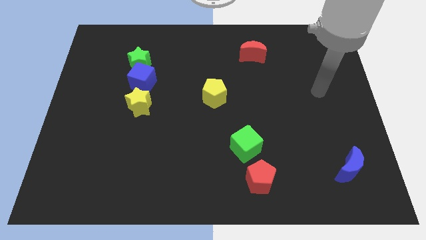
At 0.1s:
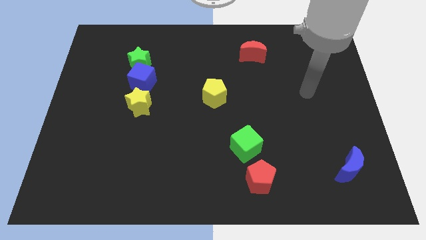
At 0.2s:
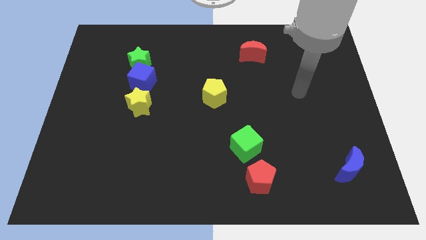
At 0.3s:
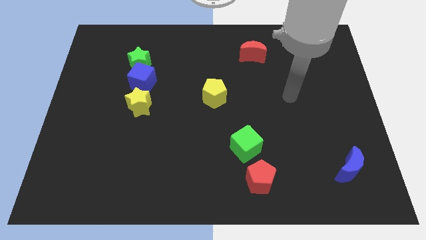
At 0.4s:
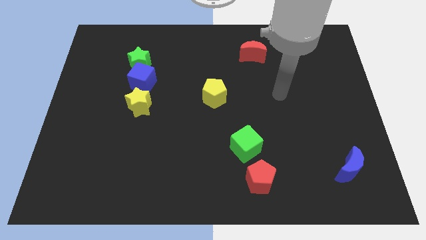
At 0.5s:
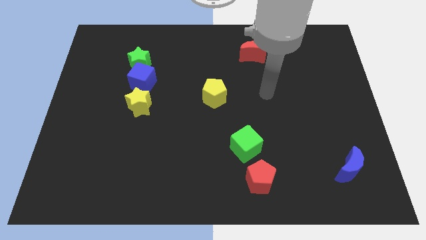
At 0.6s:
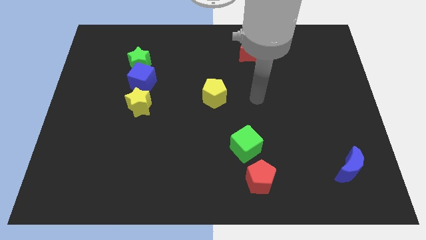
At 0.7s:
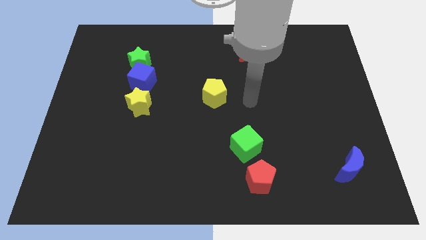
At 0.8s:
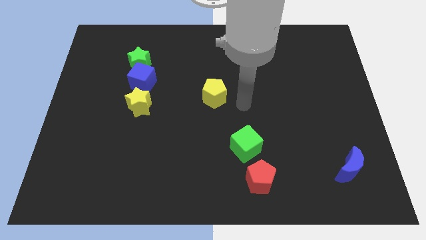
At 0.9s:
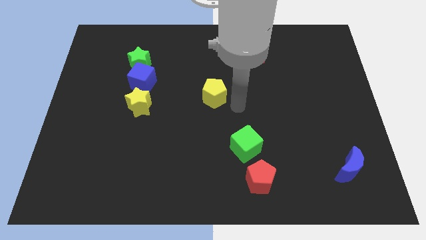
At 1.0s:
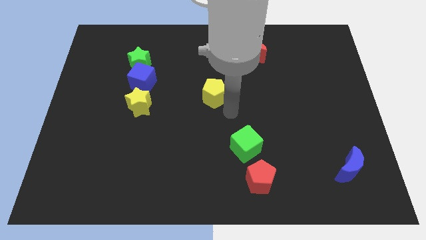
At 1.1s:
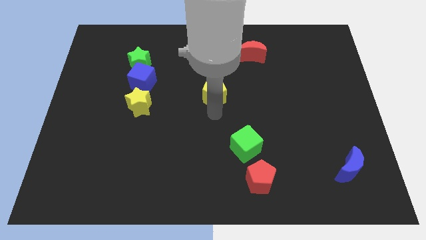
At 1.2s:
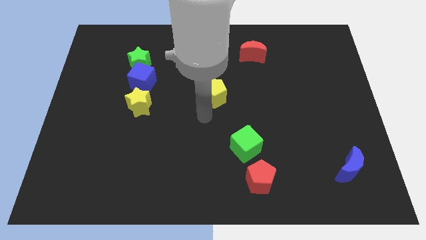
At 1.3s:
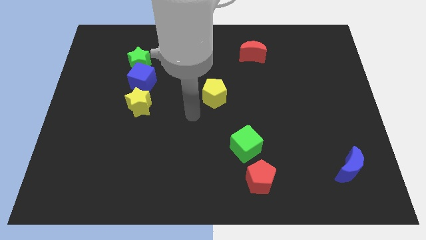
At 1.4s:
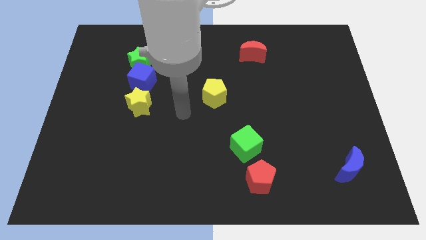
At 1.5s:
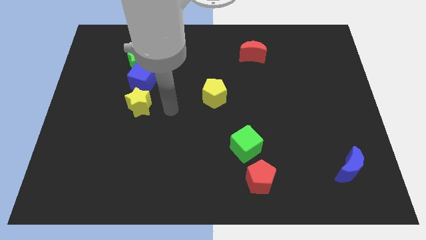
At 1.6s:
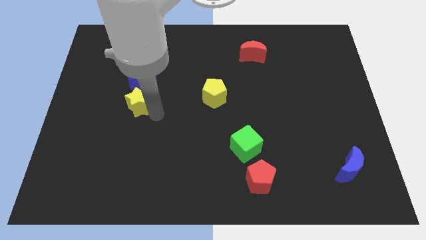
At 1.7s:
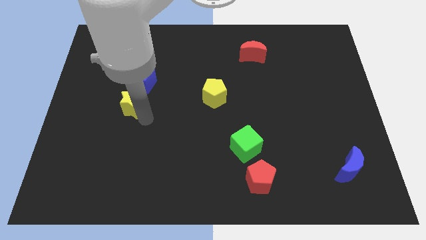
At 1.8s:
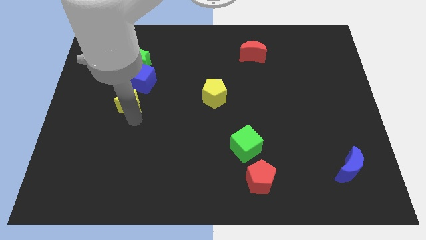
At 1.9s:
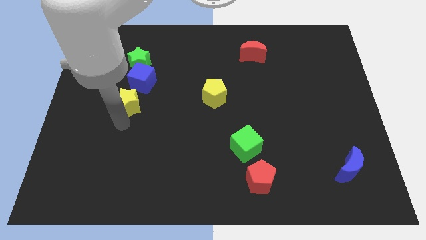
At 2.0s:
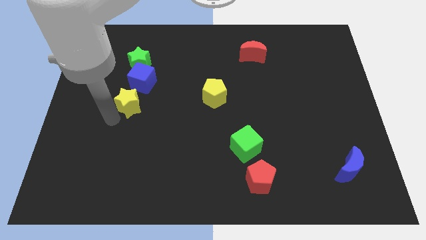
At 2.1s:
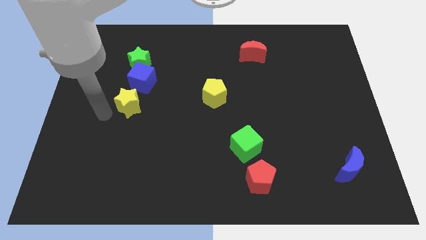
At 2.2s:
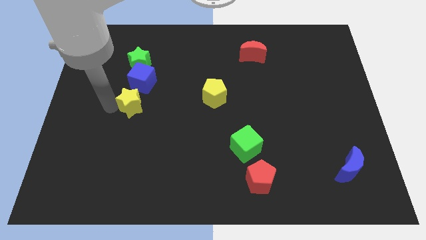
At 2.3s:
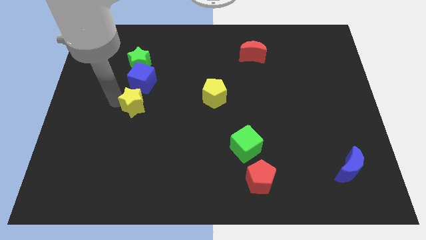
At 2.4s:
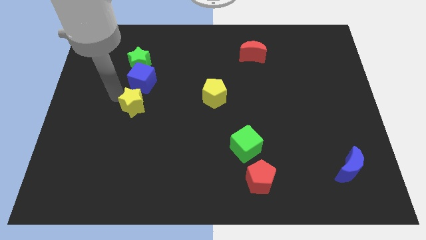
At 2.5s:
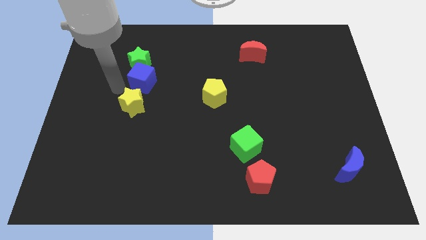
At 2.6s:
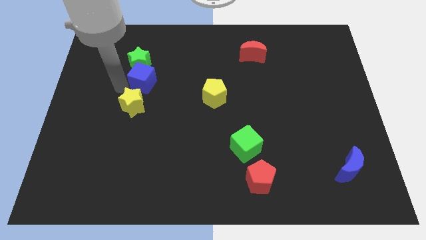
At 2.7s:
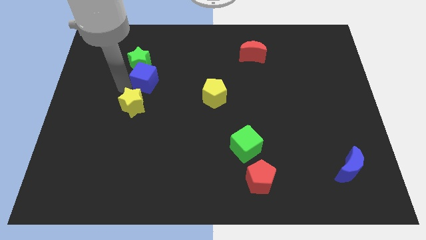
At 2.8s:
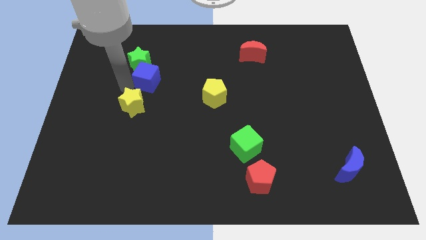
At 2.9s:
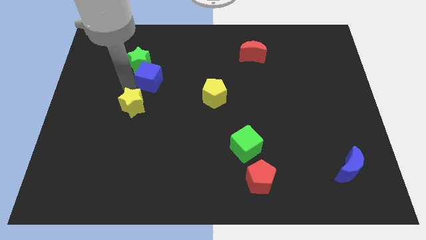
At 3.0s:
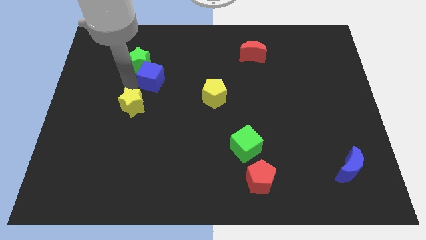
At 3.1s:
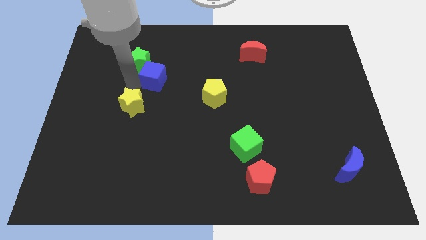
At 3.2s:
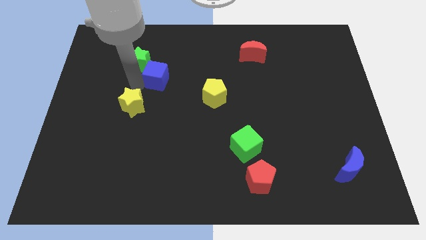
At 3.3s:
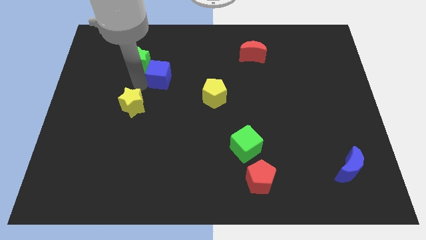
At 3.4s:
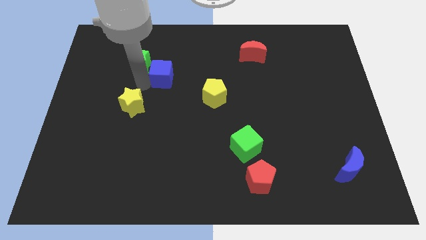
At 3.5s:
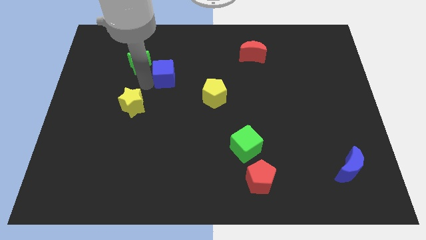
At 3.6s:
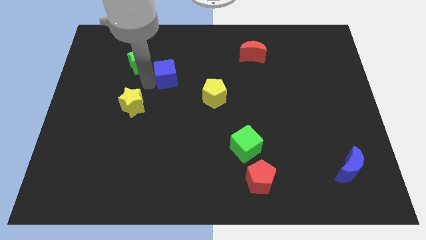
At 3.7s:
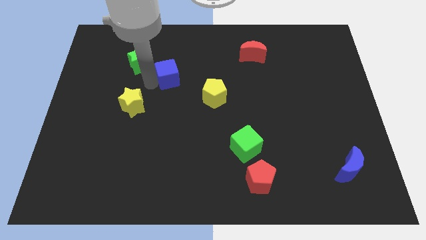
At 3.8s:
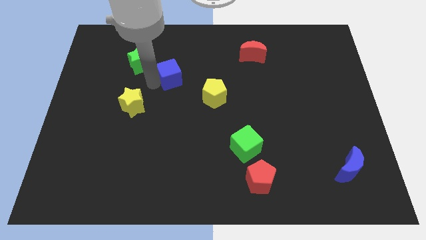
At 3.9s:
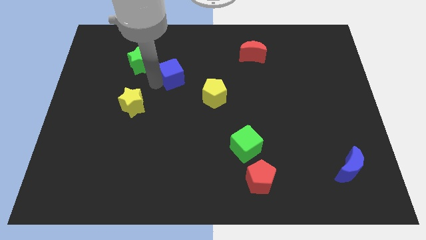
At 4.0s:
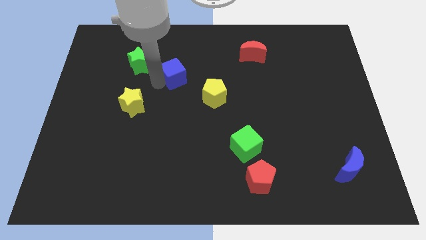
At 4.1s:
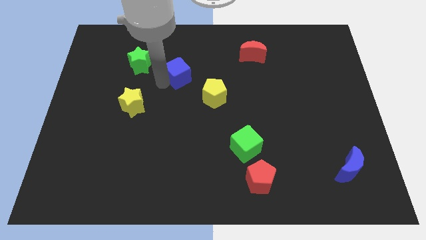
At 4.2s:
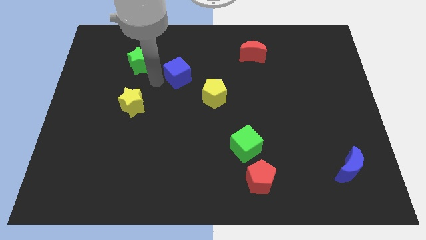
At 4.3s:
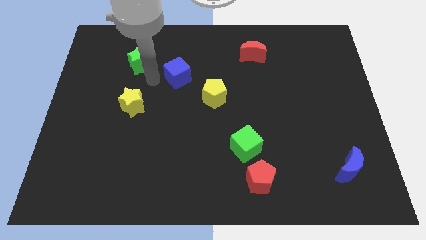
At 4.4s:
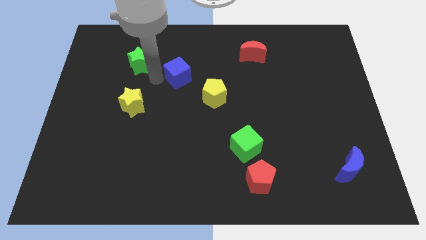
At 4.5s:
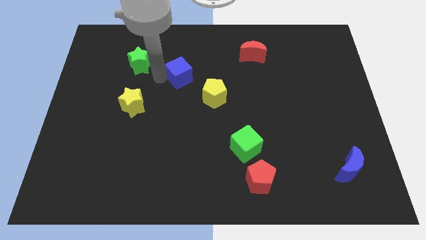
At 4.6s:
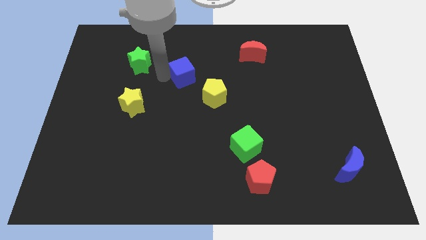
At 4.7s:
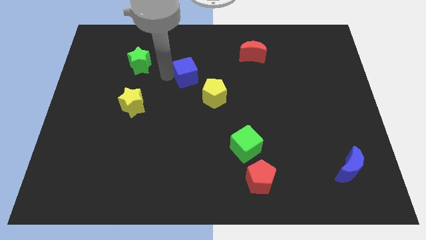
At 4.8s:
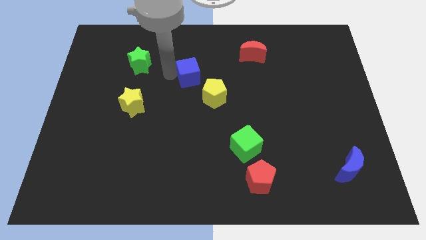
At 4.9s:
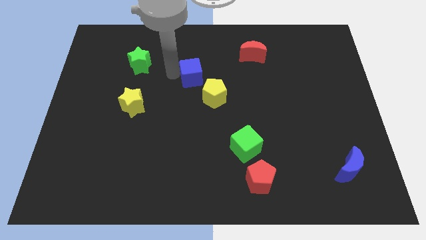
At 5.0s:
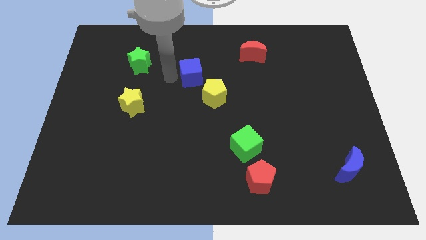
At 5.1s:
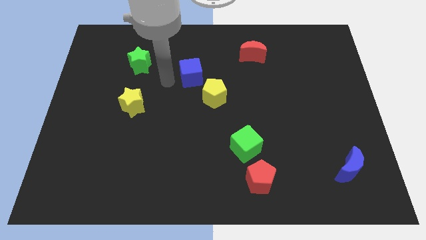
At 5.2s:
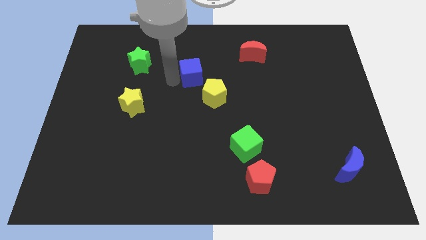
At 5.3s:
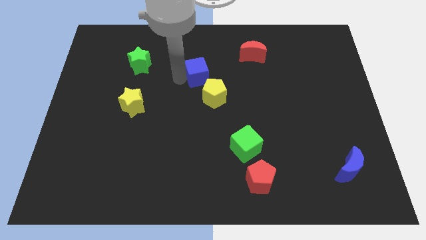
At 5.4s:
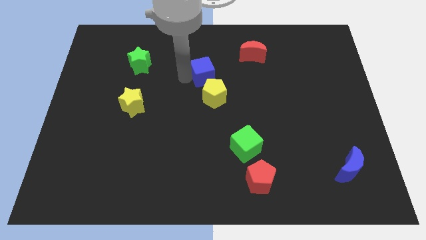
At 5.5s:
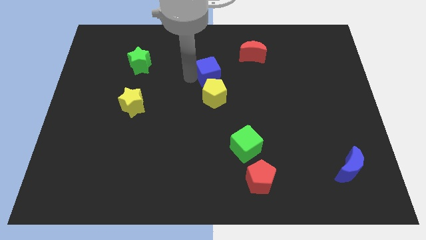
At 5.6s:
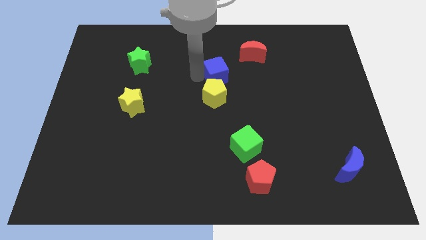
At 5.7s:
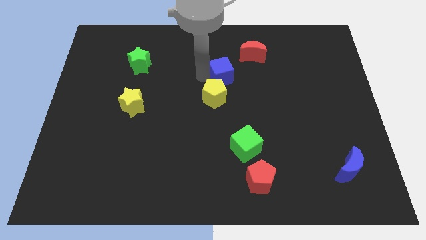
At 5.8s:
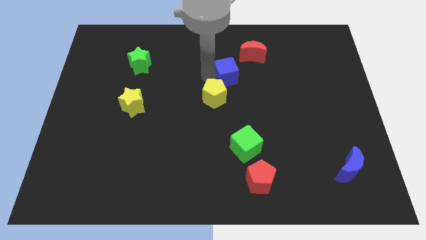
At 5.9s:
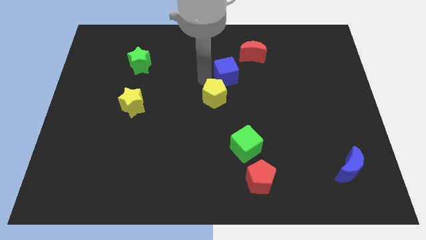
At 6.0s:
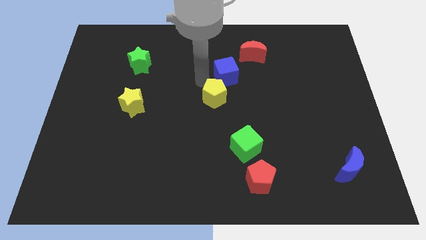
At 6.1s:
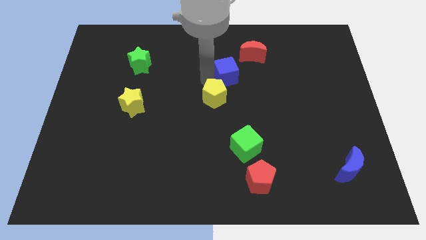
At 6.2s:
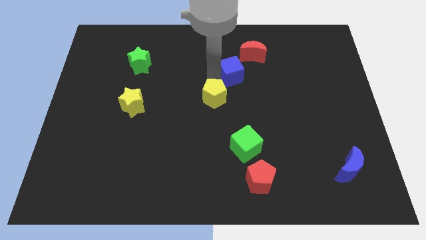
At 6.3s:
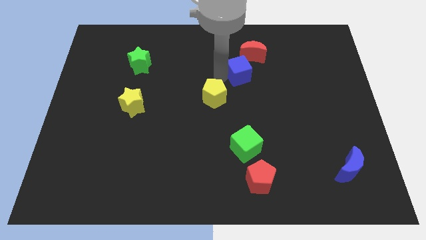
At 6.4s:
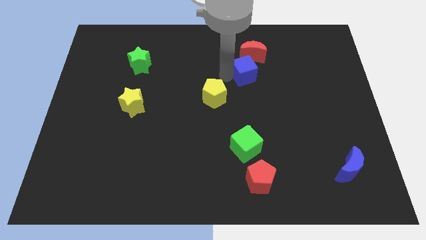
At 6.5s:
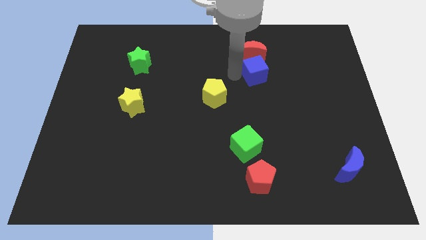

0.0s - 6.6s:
push the blue cube to the bottom right side of the red moon

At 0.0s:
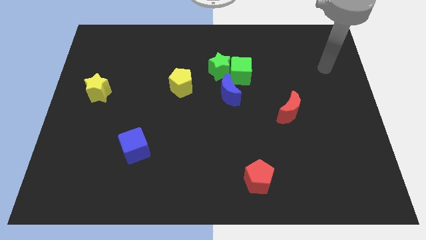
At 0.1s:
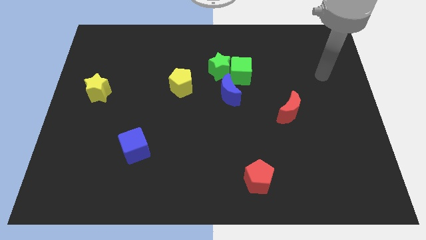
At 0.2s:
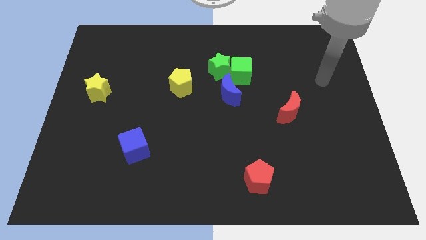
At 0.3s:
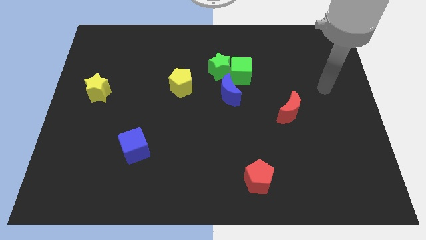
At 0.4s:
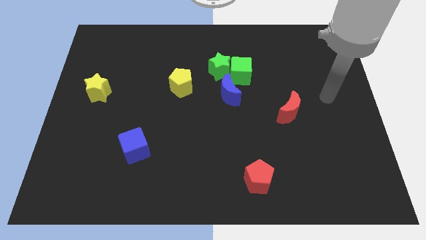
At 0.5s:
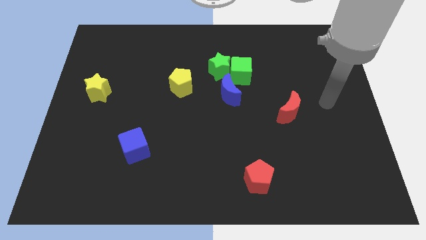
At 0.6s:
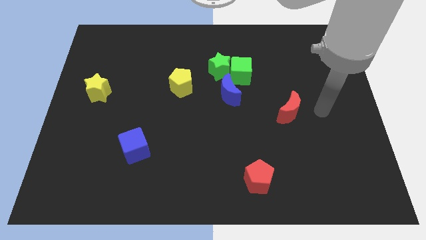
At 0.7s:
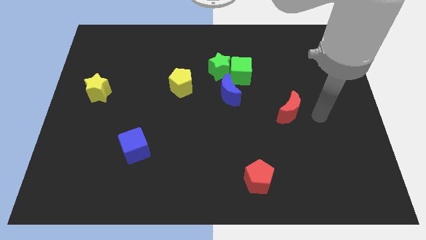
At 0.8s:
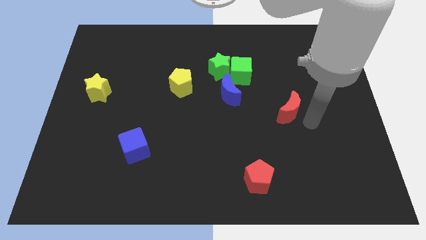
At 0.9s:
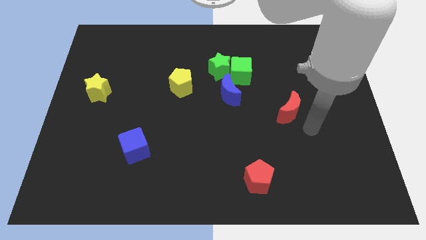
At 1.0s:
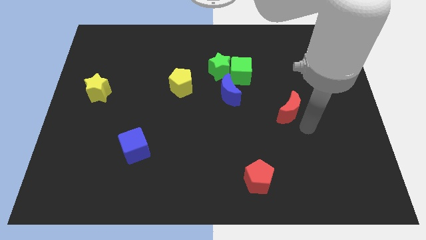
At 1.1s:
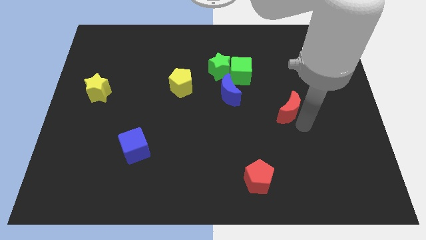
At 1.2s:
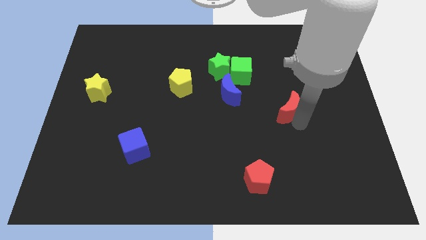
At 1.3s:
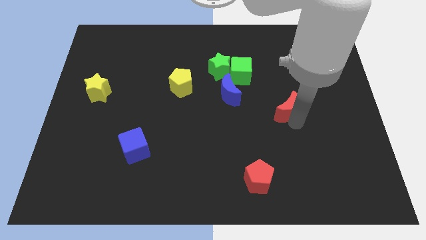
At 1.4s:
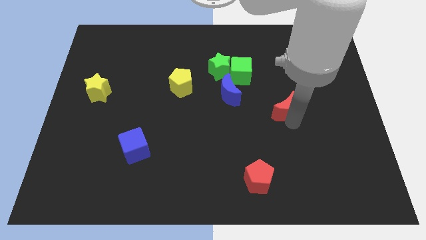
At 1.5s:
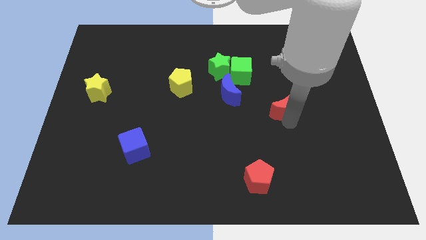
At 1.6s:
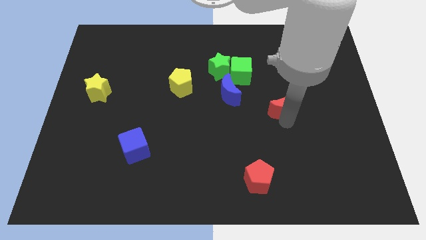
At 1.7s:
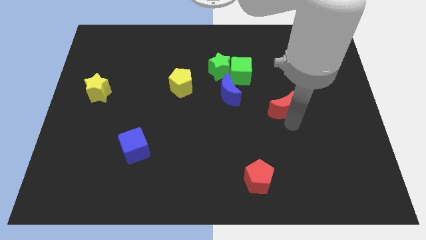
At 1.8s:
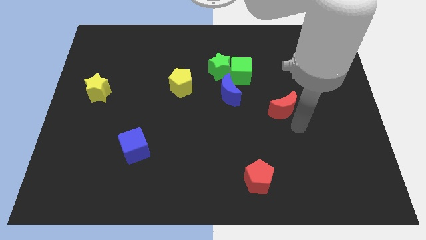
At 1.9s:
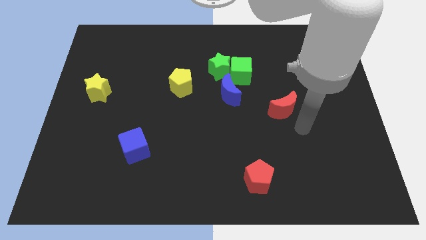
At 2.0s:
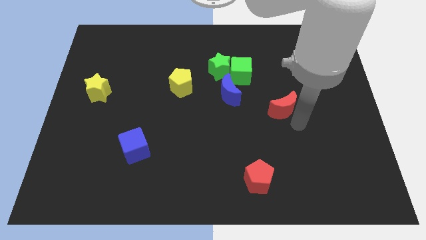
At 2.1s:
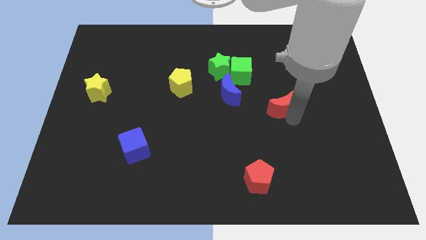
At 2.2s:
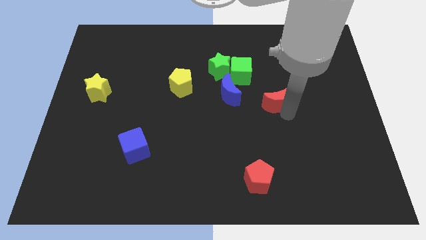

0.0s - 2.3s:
push the red moon to the bottom right side of the green cube
